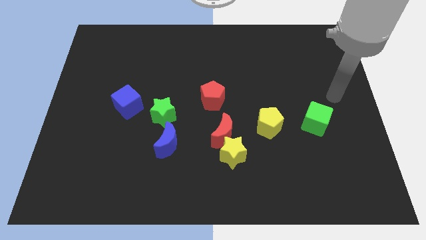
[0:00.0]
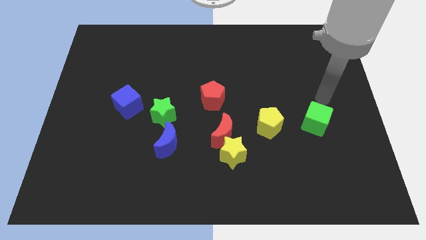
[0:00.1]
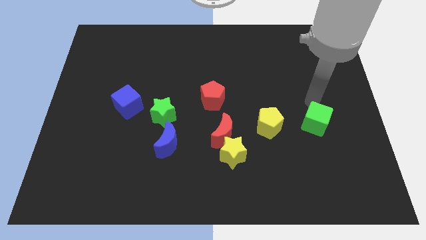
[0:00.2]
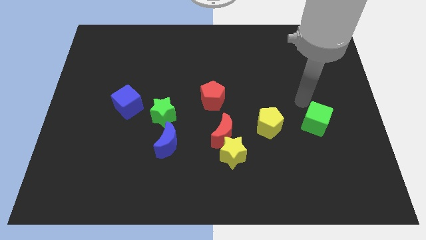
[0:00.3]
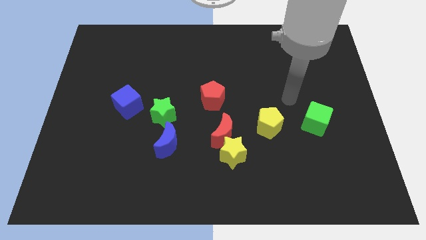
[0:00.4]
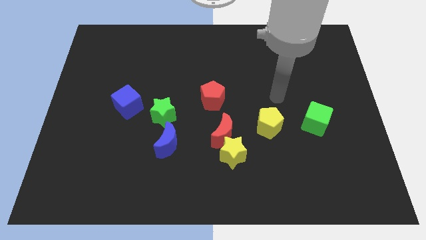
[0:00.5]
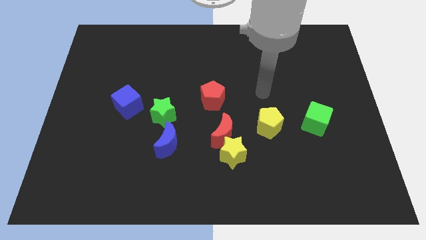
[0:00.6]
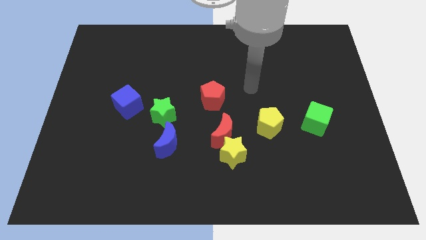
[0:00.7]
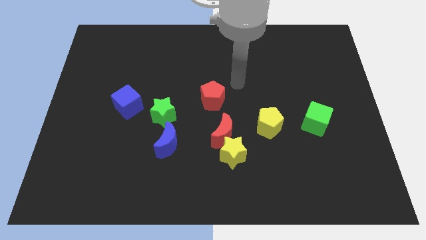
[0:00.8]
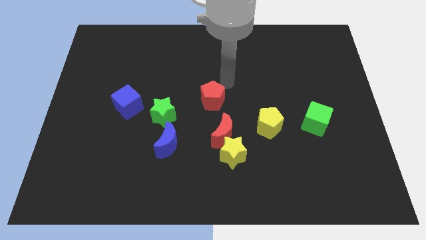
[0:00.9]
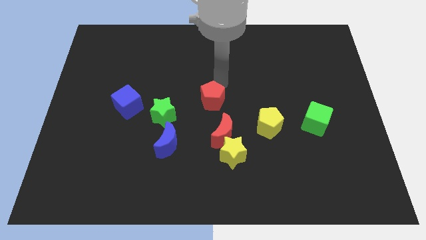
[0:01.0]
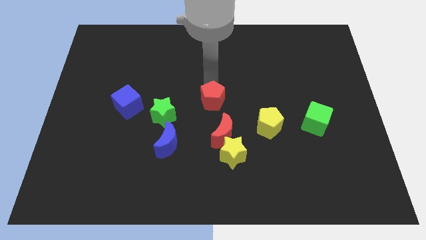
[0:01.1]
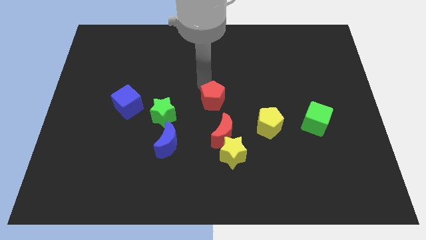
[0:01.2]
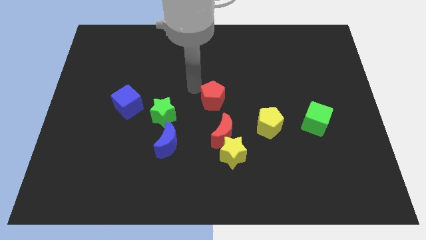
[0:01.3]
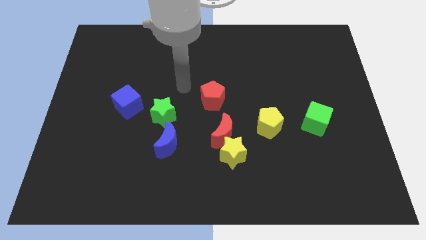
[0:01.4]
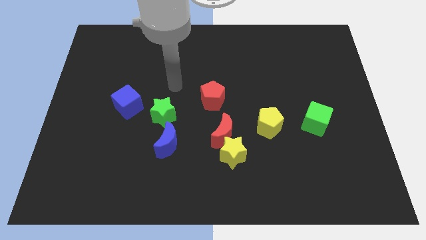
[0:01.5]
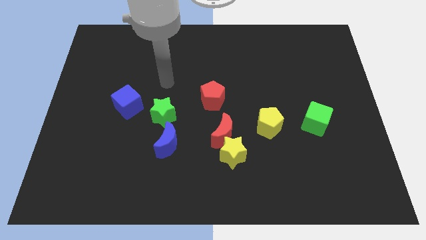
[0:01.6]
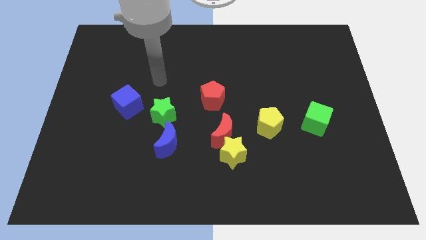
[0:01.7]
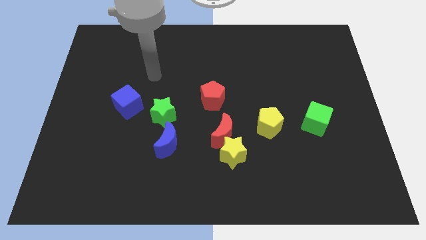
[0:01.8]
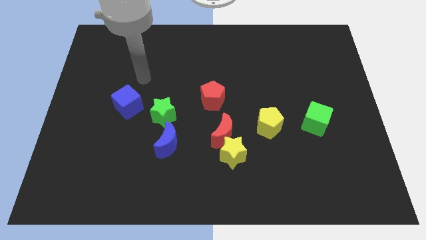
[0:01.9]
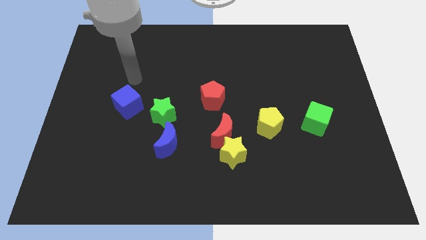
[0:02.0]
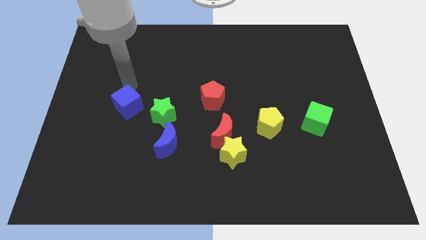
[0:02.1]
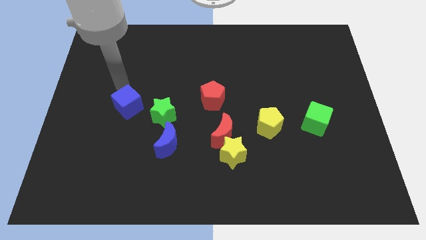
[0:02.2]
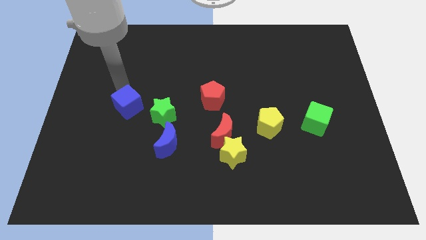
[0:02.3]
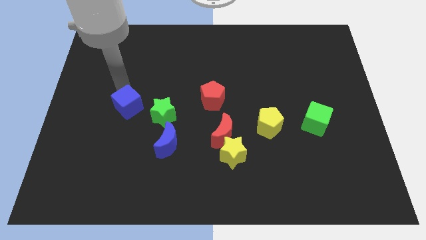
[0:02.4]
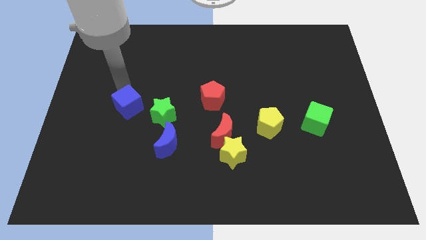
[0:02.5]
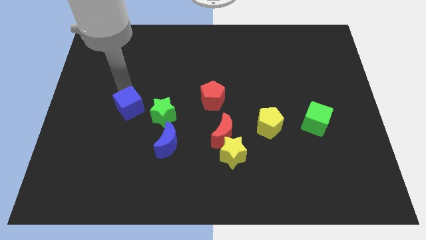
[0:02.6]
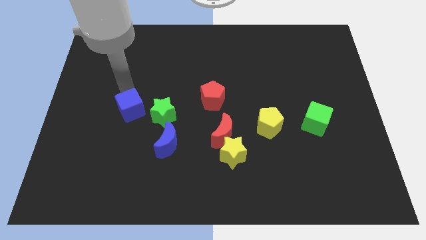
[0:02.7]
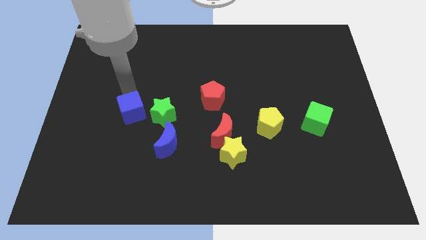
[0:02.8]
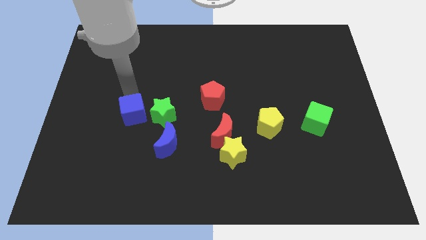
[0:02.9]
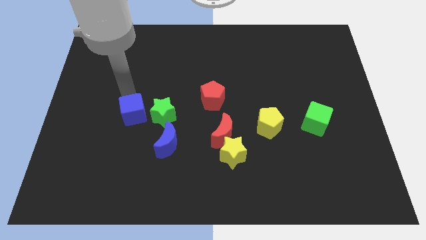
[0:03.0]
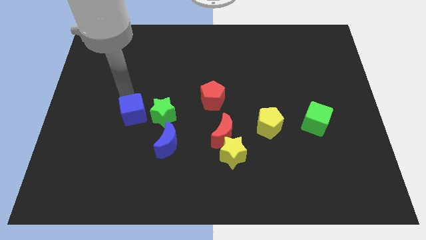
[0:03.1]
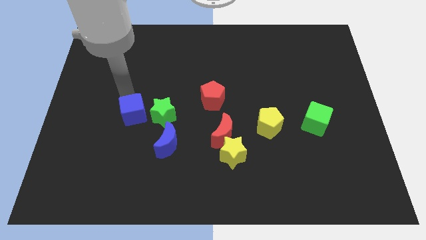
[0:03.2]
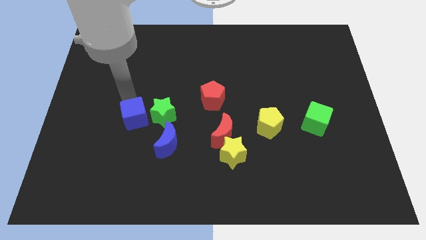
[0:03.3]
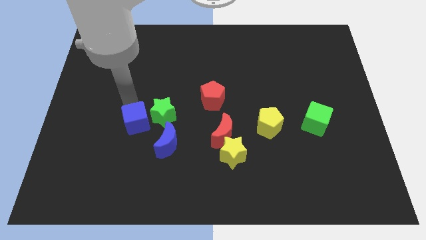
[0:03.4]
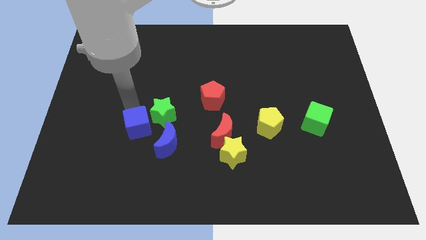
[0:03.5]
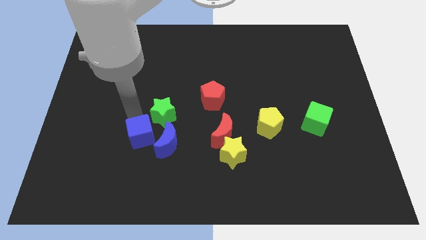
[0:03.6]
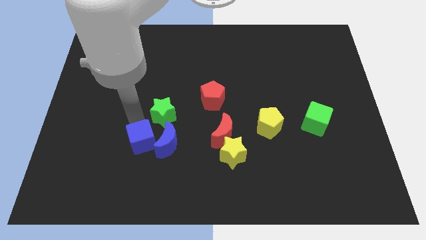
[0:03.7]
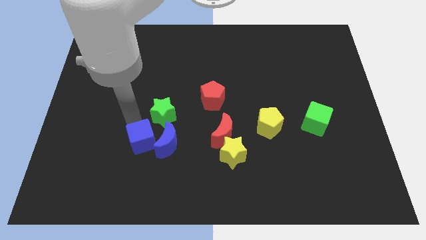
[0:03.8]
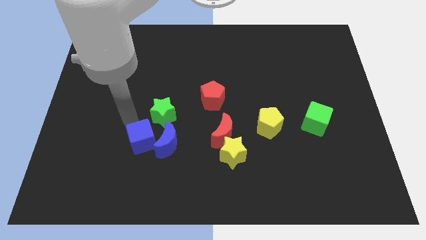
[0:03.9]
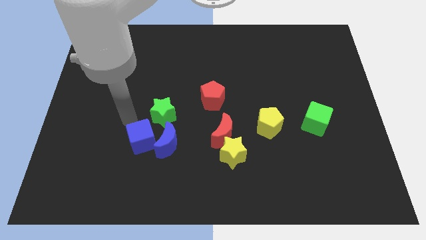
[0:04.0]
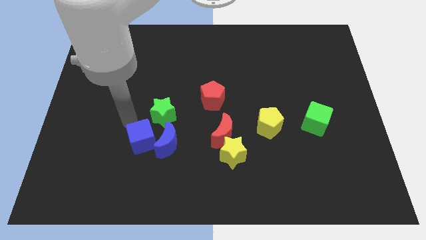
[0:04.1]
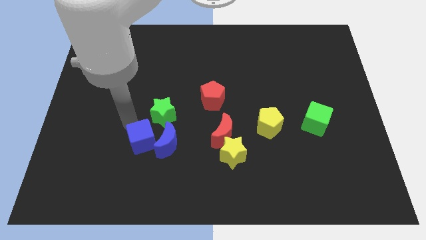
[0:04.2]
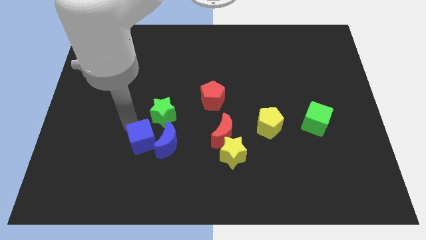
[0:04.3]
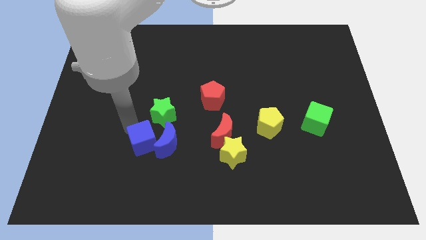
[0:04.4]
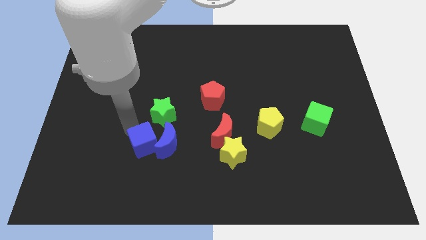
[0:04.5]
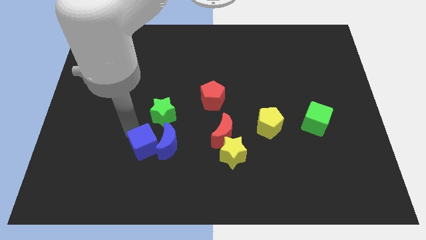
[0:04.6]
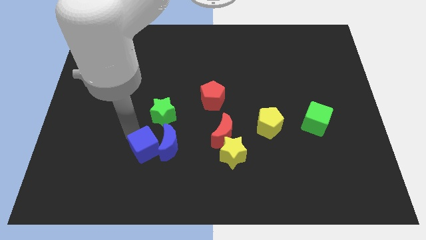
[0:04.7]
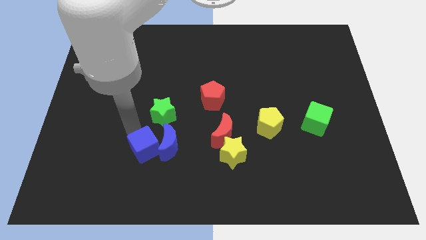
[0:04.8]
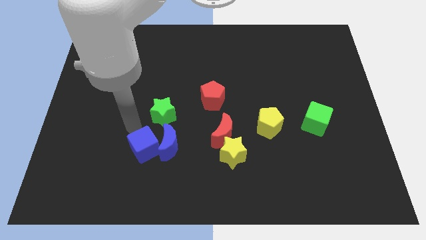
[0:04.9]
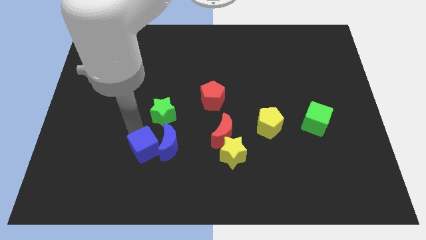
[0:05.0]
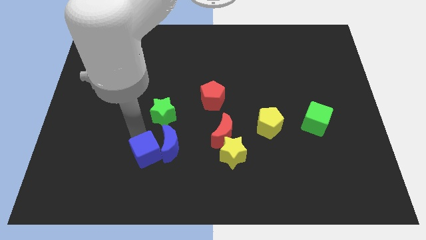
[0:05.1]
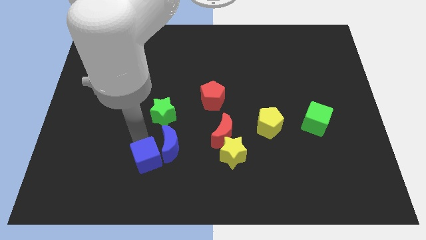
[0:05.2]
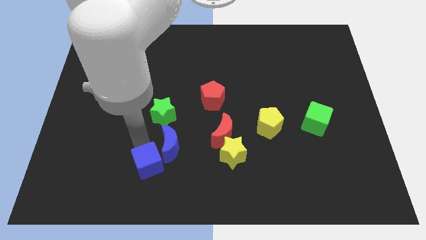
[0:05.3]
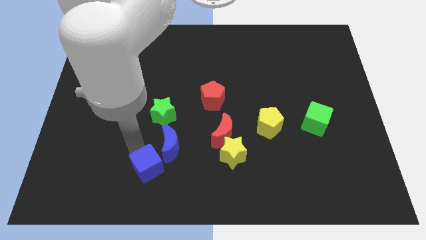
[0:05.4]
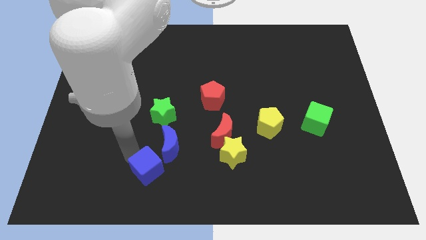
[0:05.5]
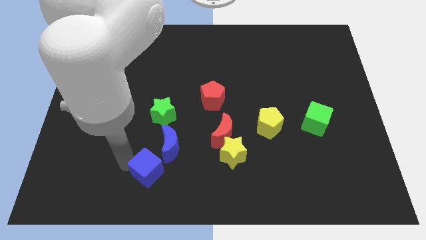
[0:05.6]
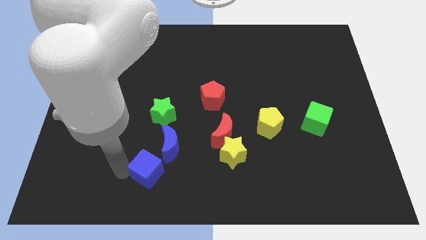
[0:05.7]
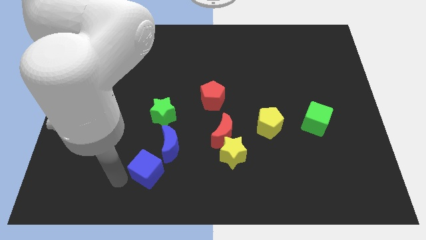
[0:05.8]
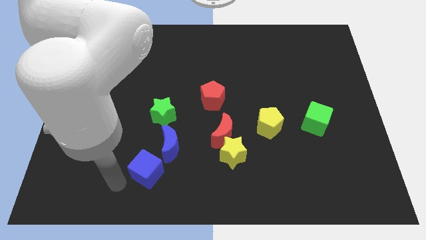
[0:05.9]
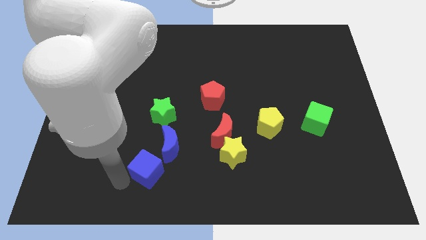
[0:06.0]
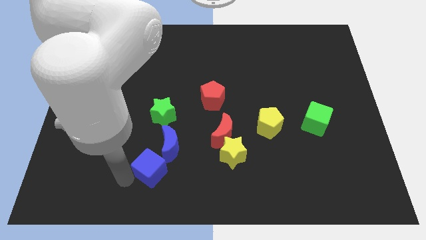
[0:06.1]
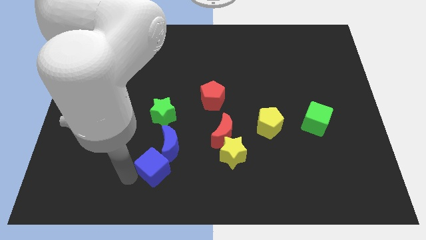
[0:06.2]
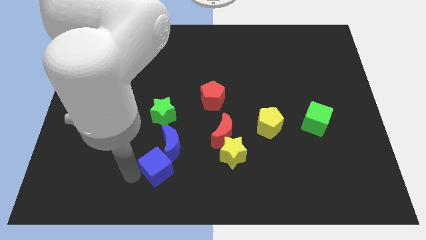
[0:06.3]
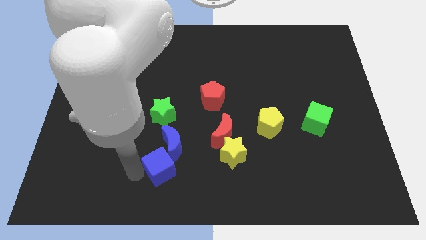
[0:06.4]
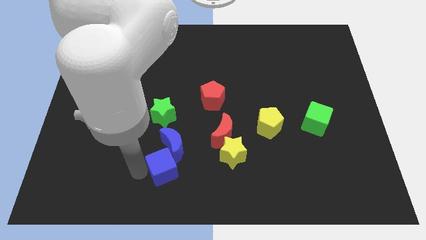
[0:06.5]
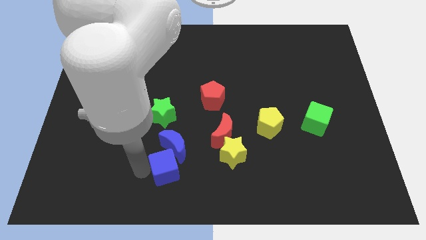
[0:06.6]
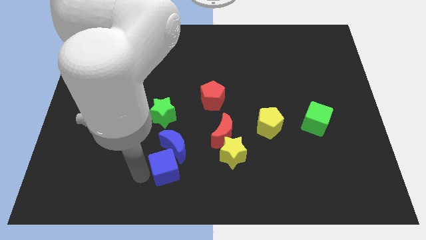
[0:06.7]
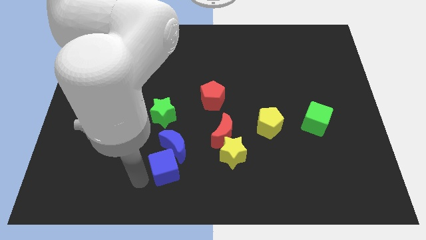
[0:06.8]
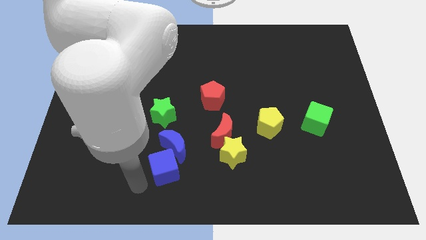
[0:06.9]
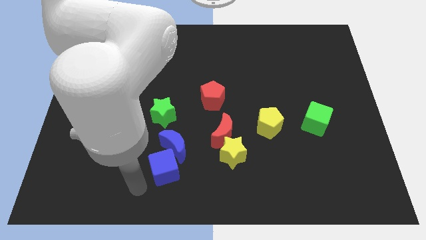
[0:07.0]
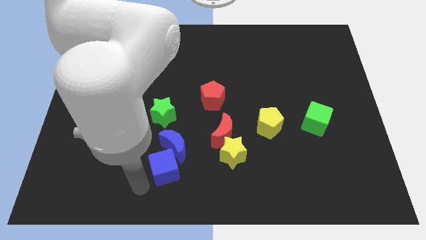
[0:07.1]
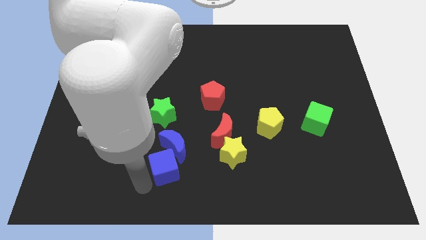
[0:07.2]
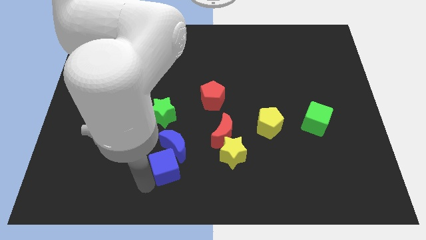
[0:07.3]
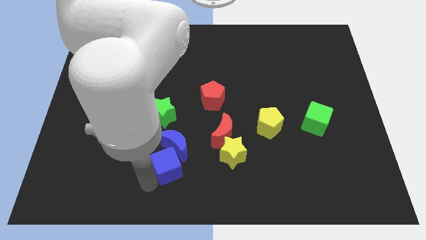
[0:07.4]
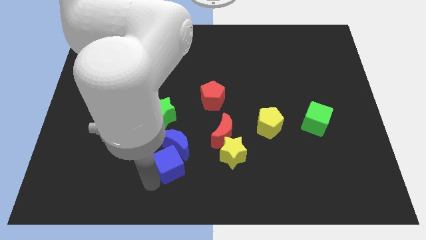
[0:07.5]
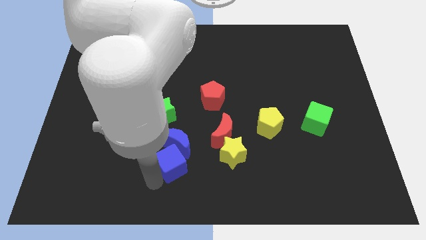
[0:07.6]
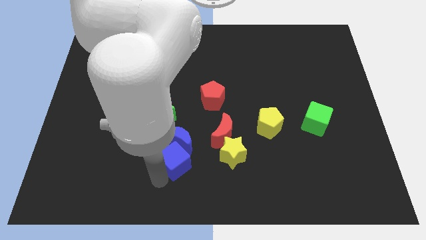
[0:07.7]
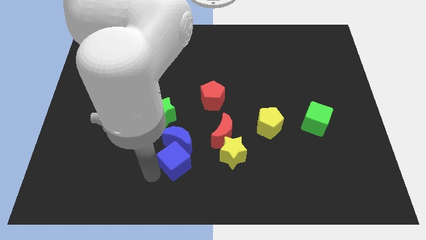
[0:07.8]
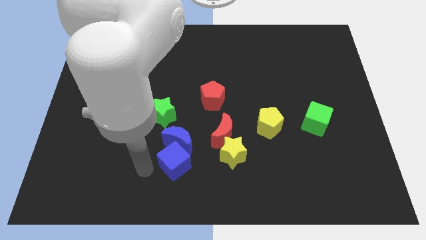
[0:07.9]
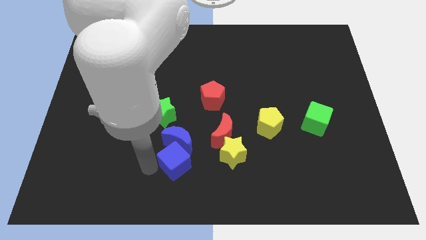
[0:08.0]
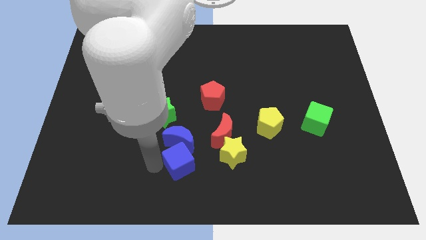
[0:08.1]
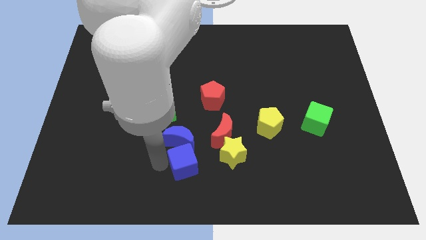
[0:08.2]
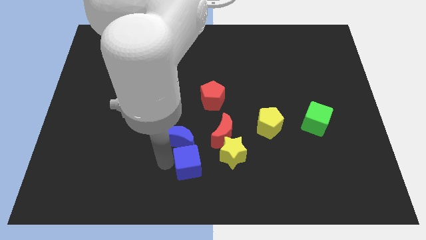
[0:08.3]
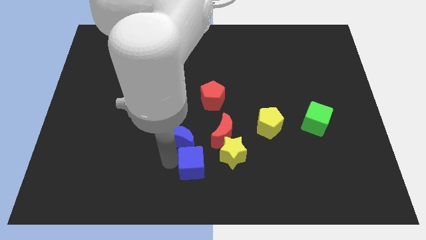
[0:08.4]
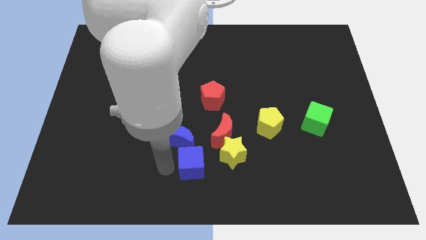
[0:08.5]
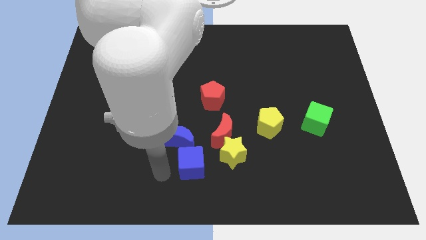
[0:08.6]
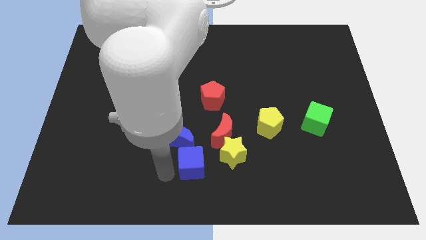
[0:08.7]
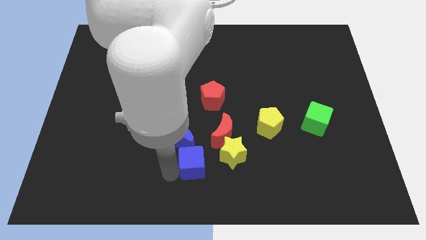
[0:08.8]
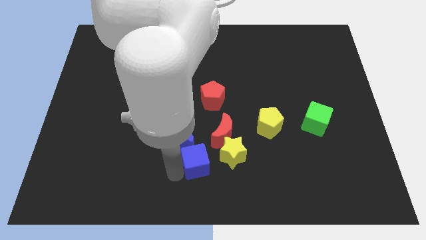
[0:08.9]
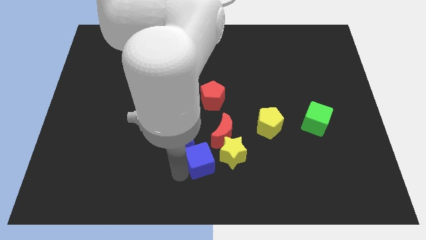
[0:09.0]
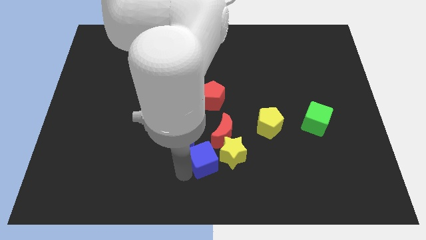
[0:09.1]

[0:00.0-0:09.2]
slide the blue cube to the yellow star
